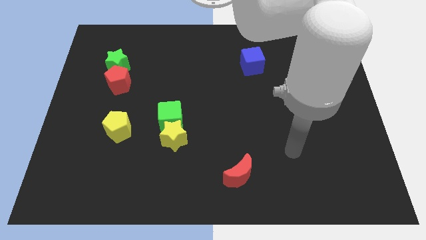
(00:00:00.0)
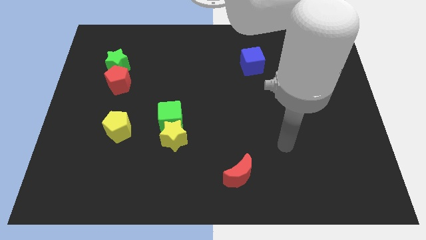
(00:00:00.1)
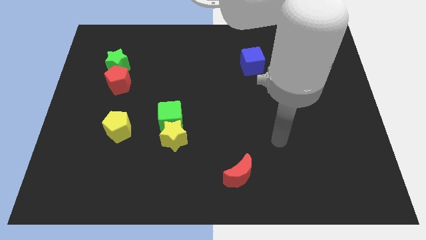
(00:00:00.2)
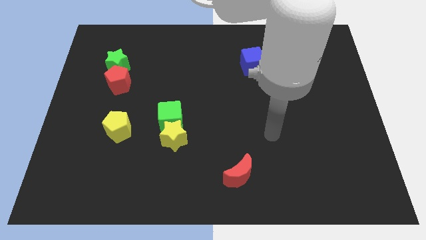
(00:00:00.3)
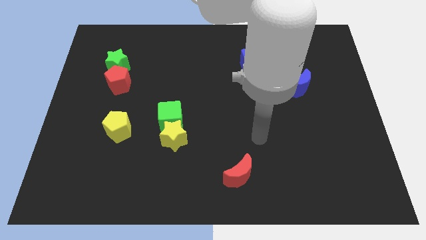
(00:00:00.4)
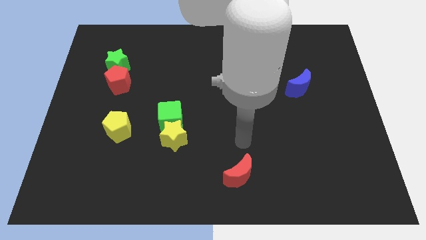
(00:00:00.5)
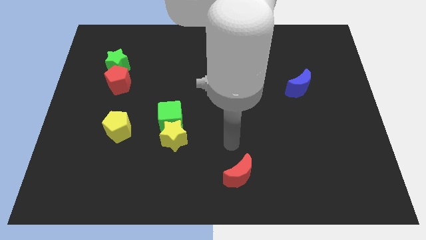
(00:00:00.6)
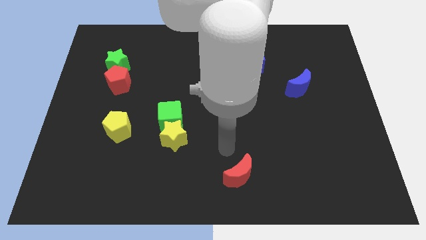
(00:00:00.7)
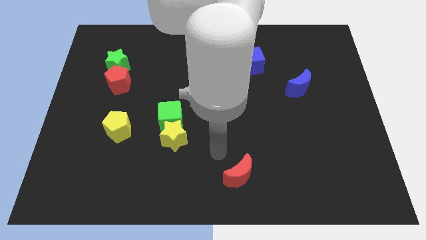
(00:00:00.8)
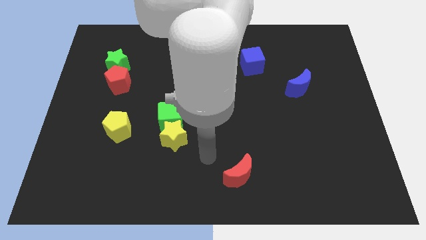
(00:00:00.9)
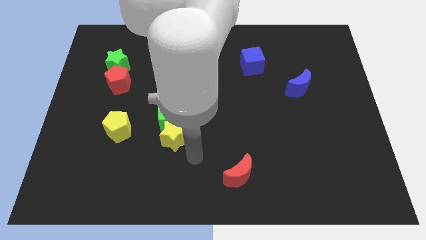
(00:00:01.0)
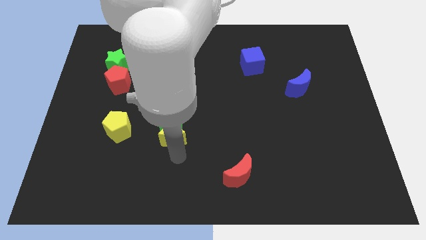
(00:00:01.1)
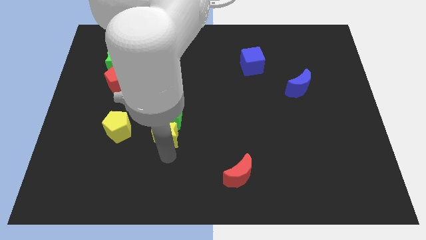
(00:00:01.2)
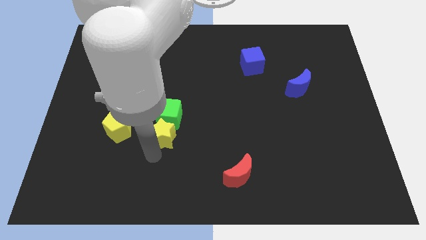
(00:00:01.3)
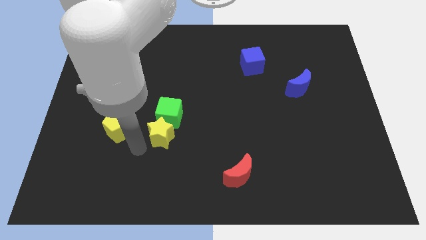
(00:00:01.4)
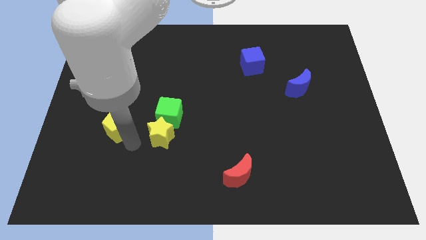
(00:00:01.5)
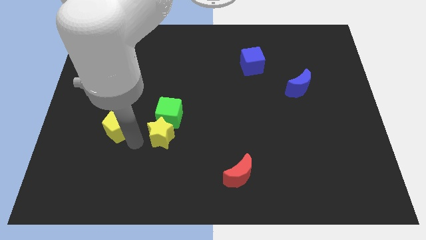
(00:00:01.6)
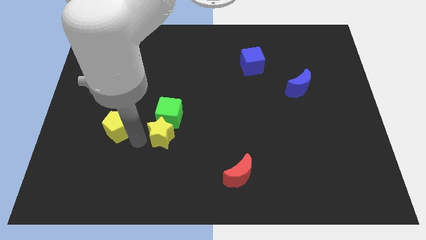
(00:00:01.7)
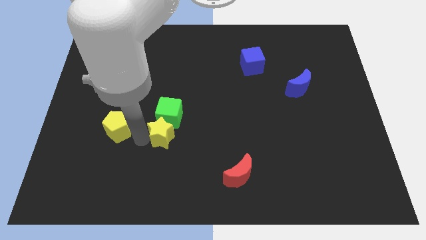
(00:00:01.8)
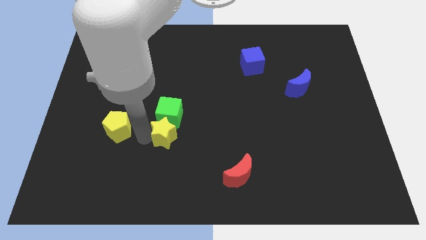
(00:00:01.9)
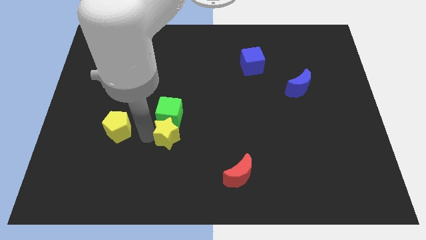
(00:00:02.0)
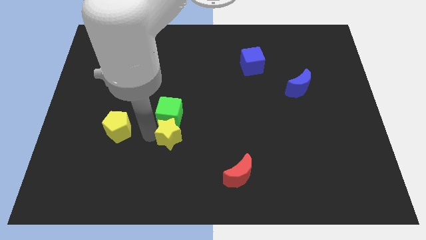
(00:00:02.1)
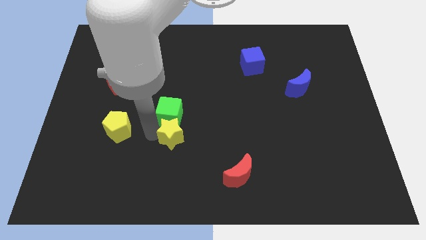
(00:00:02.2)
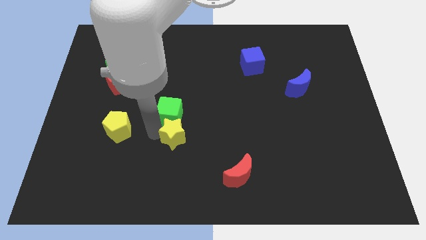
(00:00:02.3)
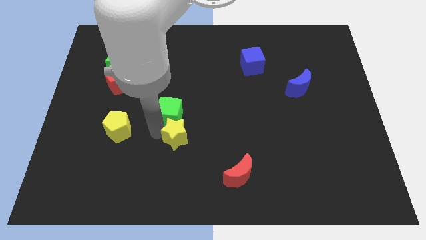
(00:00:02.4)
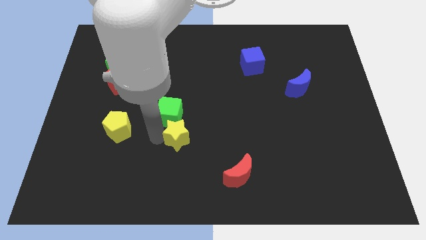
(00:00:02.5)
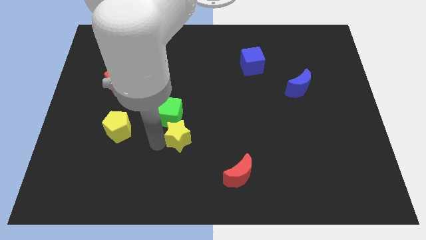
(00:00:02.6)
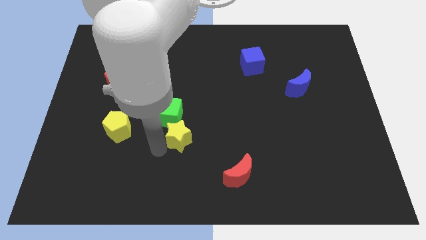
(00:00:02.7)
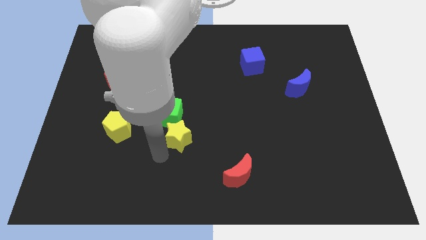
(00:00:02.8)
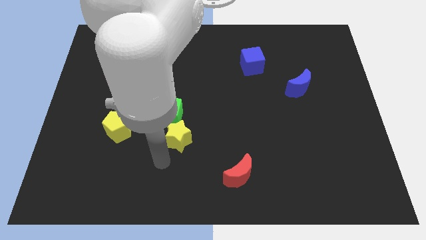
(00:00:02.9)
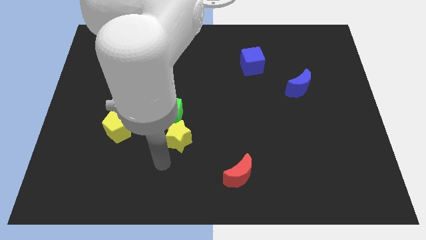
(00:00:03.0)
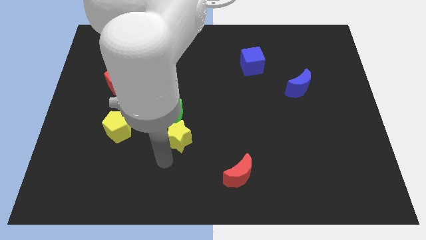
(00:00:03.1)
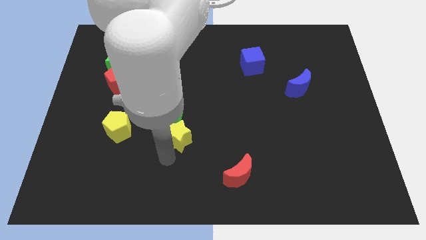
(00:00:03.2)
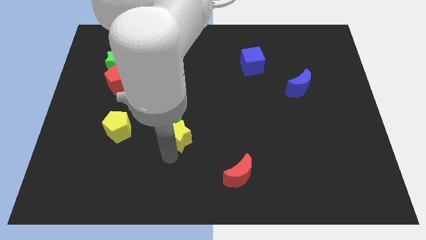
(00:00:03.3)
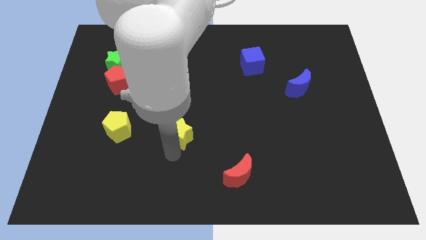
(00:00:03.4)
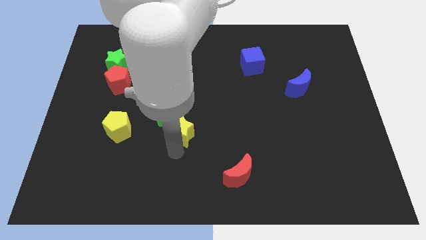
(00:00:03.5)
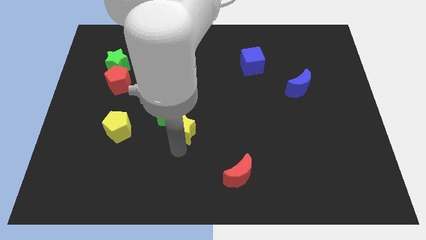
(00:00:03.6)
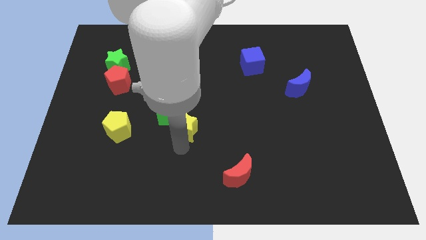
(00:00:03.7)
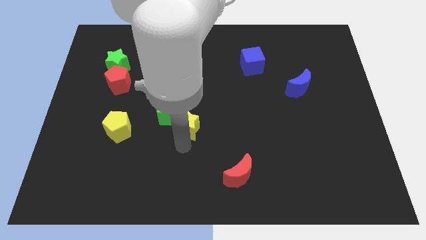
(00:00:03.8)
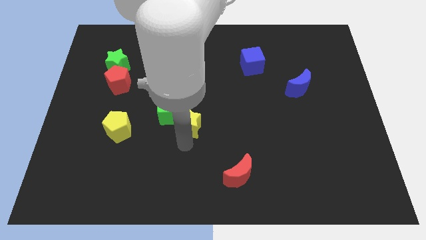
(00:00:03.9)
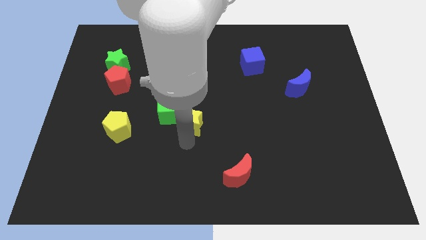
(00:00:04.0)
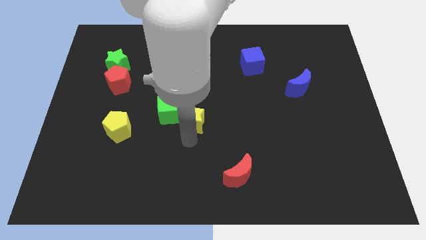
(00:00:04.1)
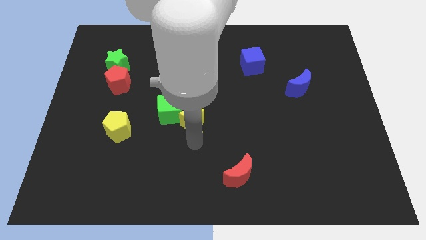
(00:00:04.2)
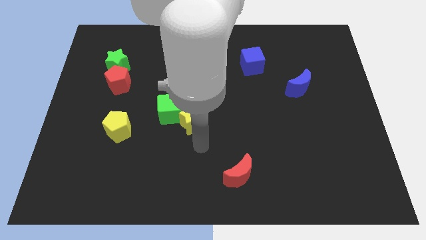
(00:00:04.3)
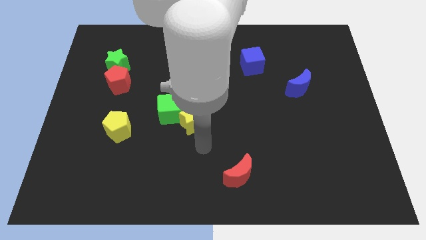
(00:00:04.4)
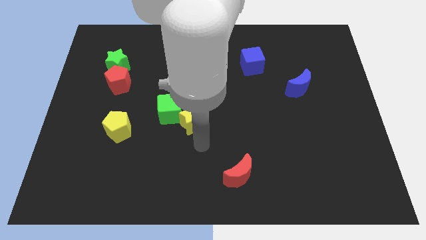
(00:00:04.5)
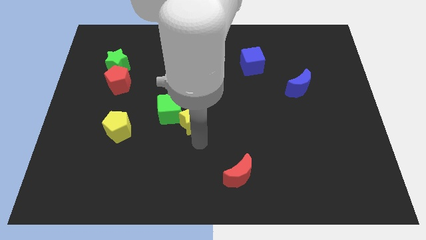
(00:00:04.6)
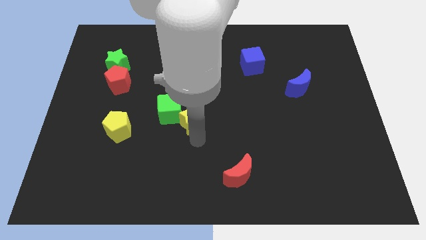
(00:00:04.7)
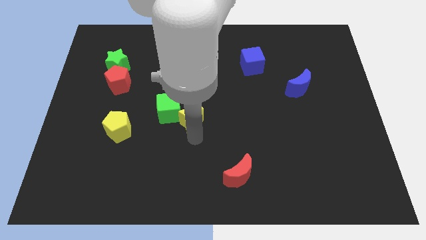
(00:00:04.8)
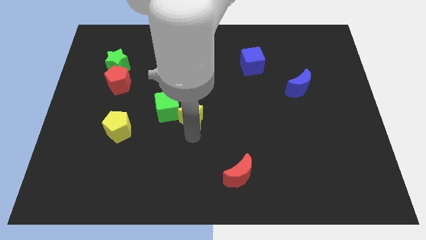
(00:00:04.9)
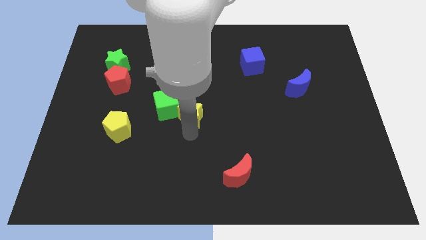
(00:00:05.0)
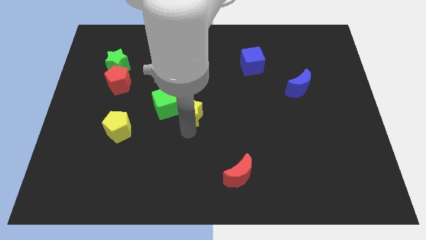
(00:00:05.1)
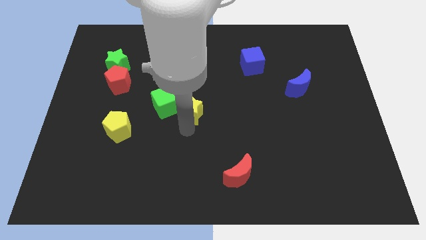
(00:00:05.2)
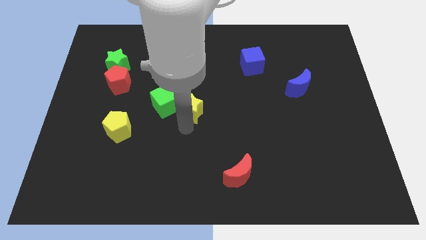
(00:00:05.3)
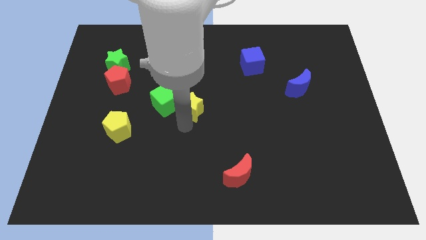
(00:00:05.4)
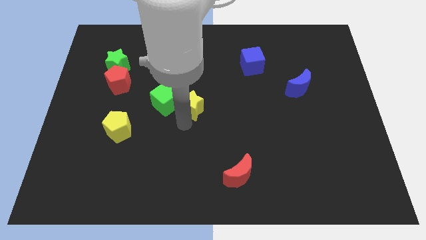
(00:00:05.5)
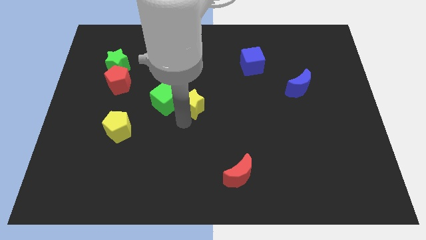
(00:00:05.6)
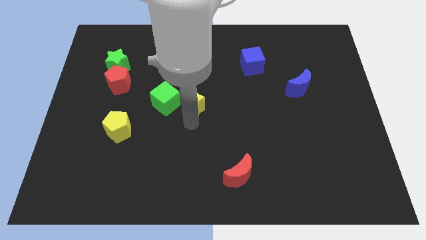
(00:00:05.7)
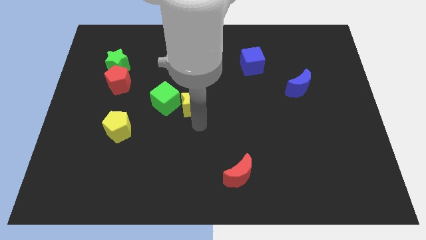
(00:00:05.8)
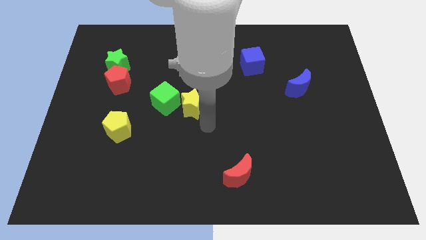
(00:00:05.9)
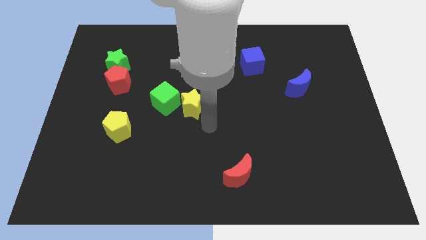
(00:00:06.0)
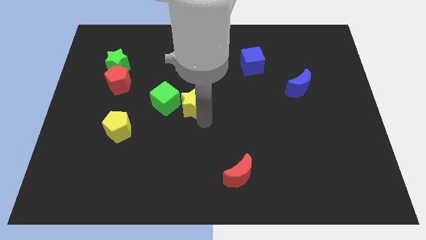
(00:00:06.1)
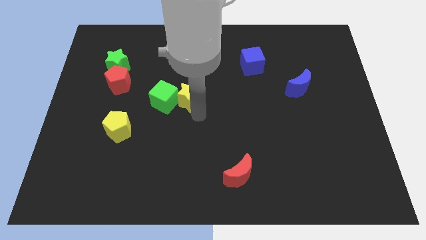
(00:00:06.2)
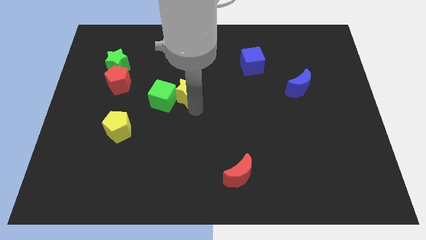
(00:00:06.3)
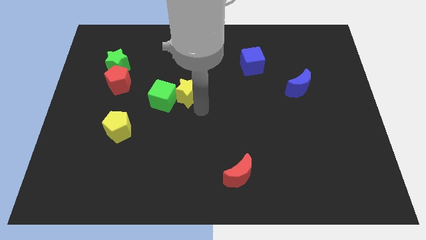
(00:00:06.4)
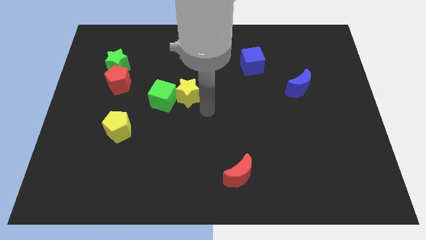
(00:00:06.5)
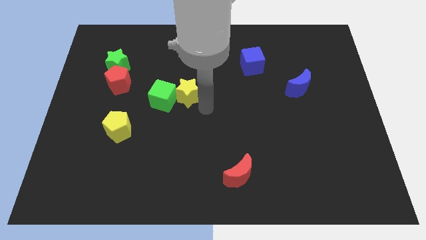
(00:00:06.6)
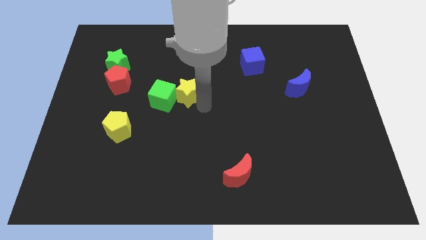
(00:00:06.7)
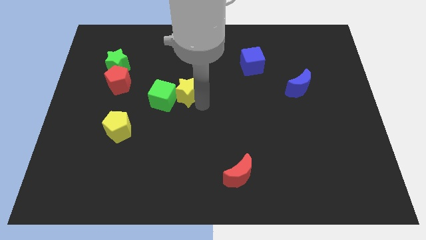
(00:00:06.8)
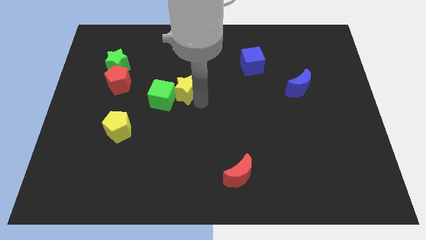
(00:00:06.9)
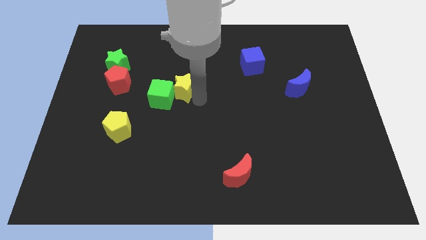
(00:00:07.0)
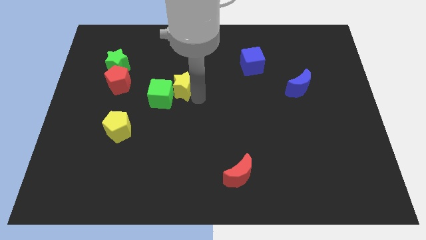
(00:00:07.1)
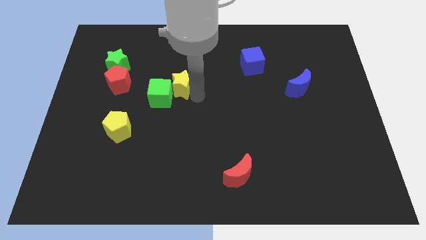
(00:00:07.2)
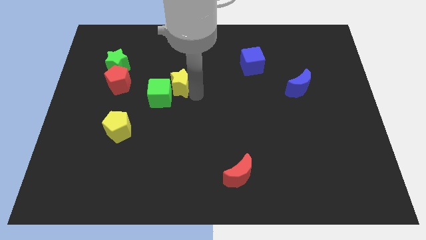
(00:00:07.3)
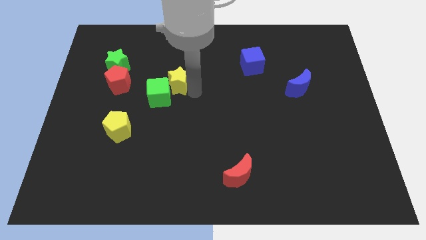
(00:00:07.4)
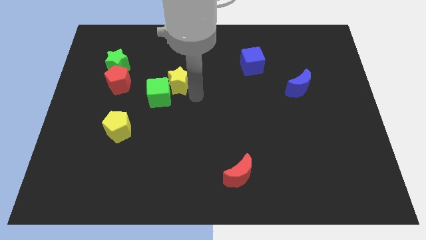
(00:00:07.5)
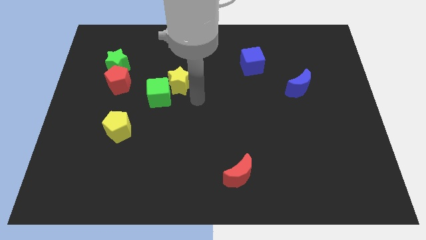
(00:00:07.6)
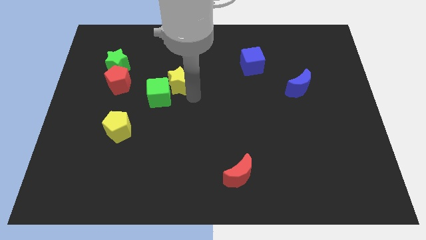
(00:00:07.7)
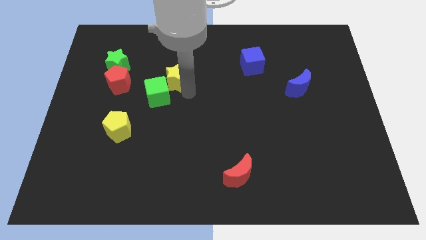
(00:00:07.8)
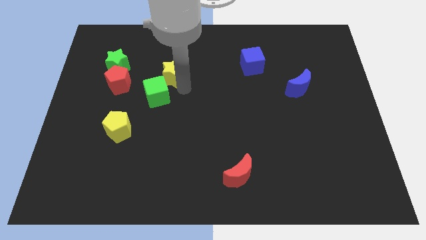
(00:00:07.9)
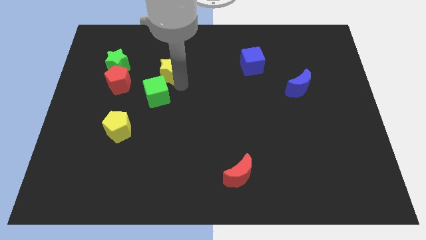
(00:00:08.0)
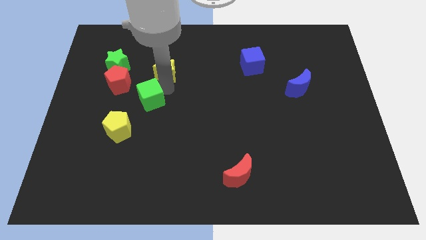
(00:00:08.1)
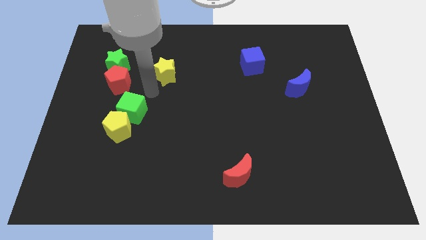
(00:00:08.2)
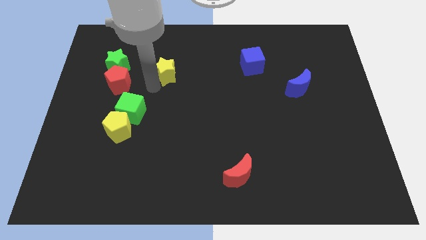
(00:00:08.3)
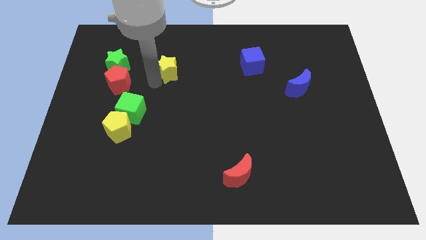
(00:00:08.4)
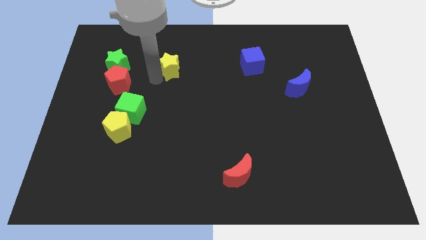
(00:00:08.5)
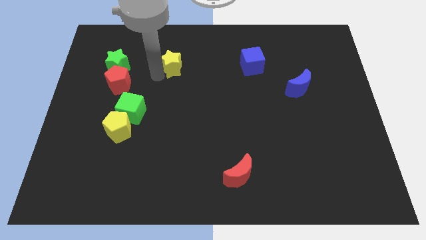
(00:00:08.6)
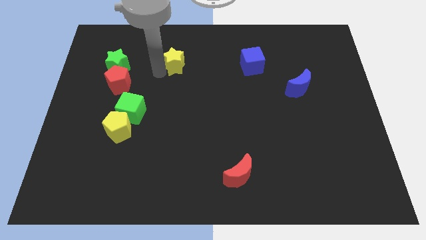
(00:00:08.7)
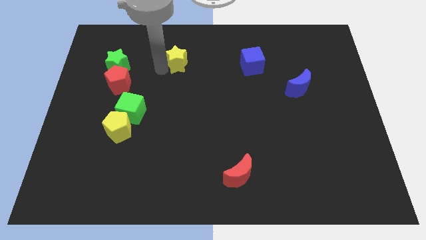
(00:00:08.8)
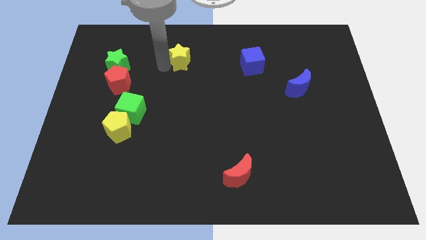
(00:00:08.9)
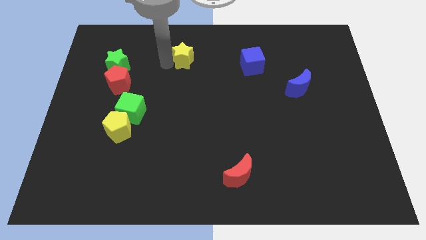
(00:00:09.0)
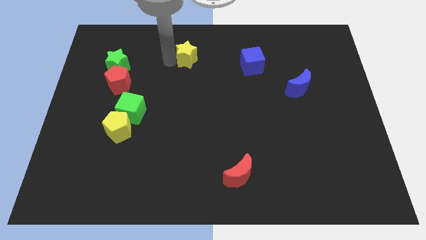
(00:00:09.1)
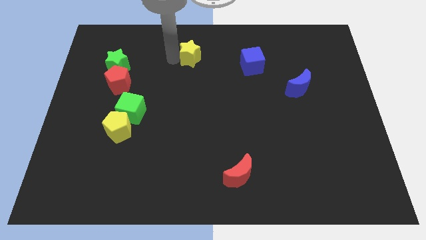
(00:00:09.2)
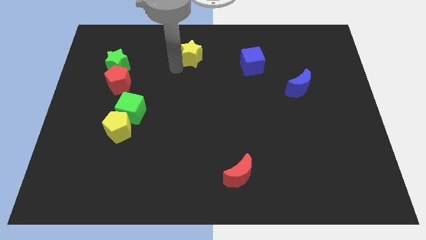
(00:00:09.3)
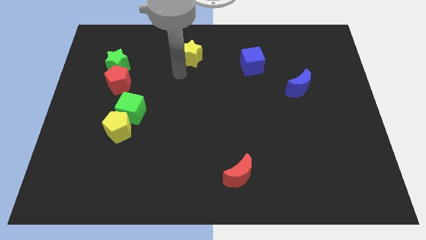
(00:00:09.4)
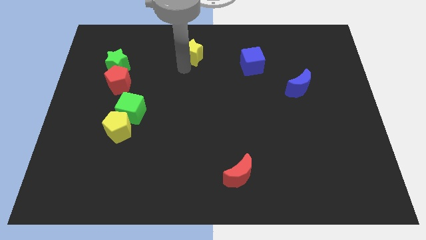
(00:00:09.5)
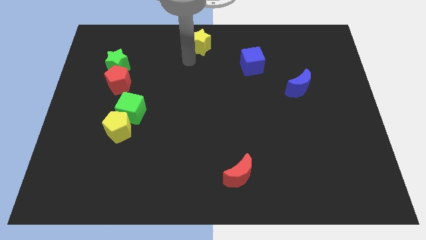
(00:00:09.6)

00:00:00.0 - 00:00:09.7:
put the yellow star to the towards your base
